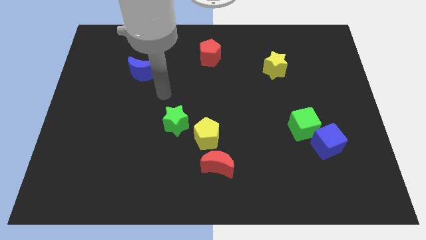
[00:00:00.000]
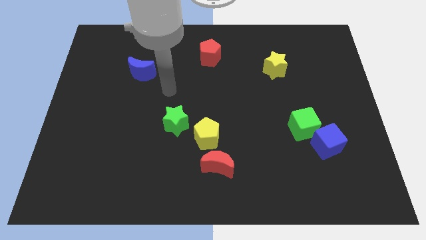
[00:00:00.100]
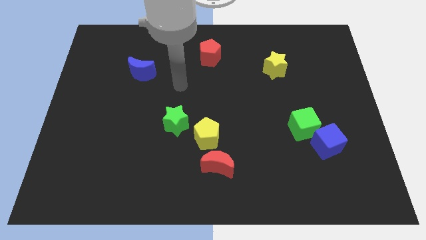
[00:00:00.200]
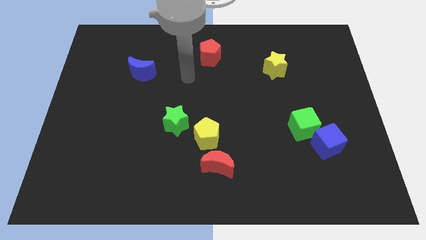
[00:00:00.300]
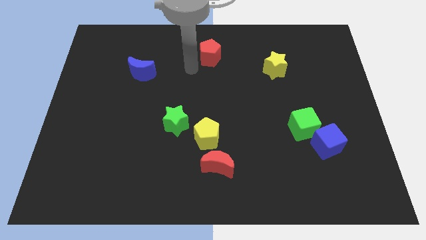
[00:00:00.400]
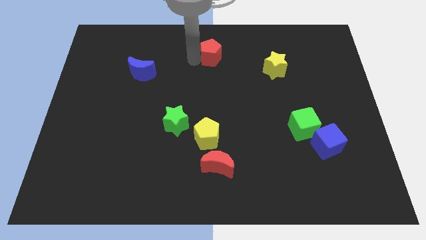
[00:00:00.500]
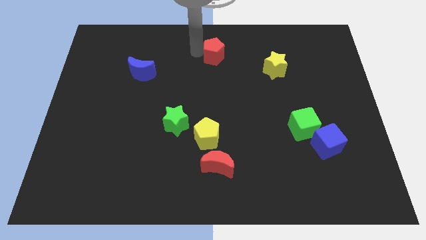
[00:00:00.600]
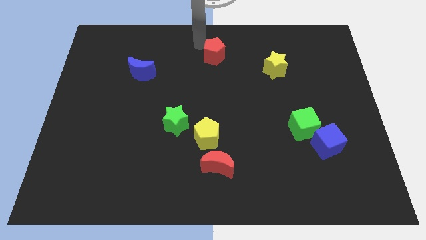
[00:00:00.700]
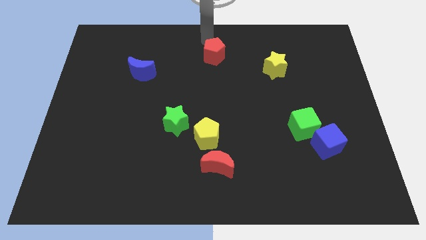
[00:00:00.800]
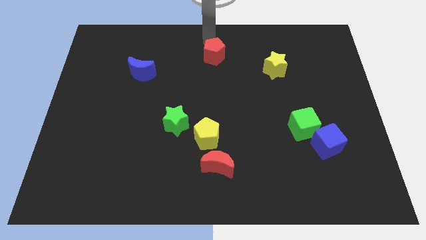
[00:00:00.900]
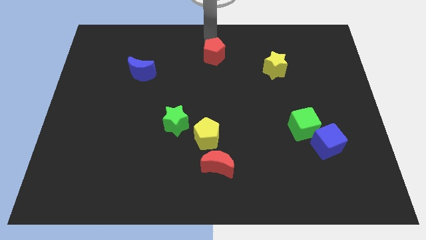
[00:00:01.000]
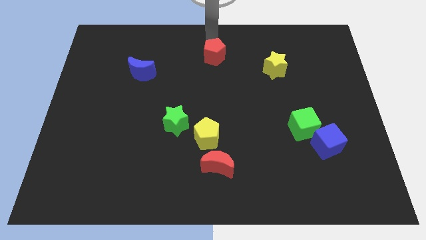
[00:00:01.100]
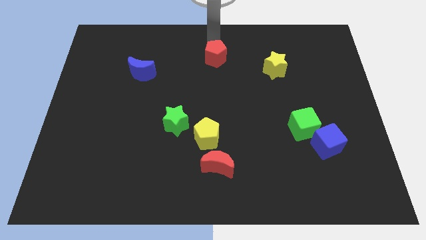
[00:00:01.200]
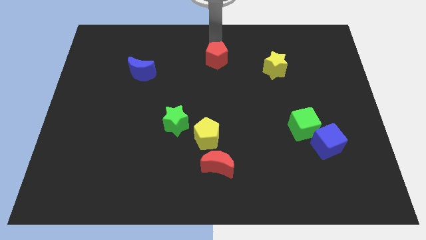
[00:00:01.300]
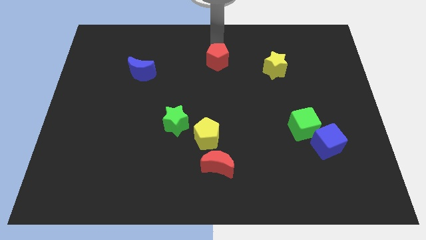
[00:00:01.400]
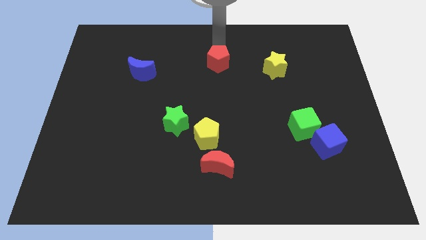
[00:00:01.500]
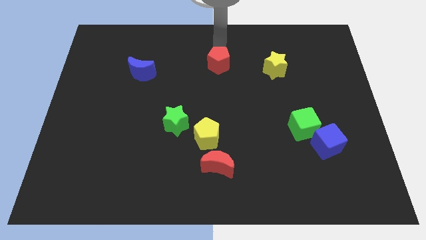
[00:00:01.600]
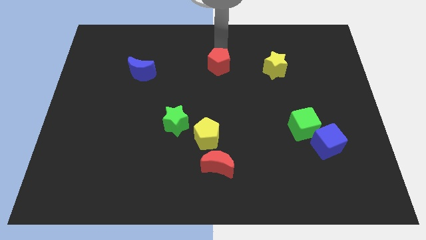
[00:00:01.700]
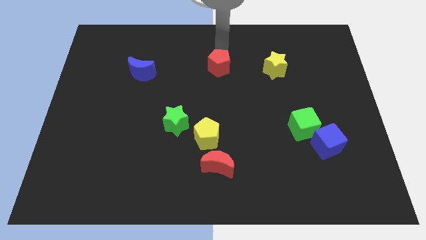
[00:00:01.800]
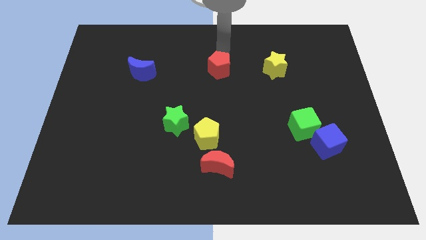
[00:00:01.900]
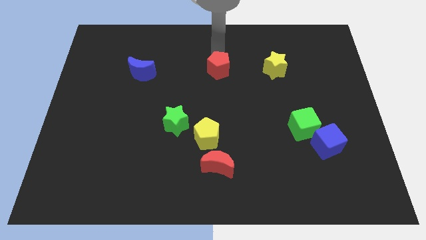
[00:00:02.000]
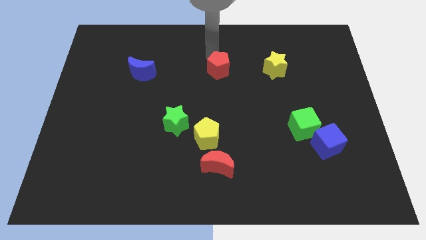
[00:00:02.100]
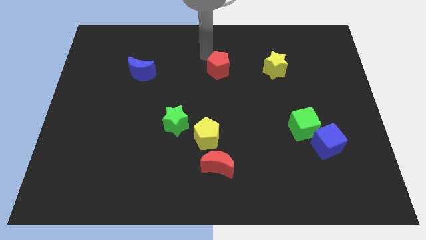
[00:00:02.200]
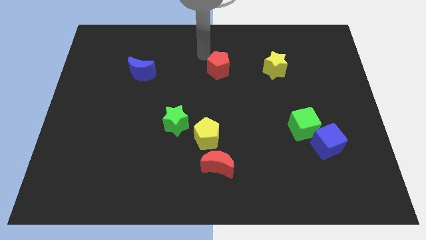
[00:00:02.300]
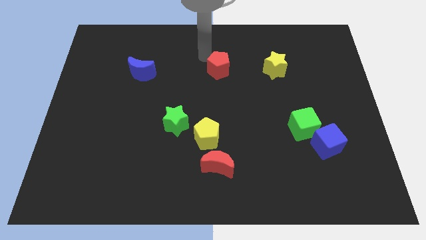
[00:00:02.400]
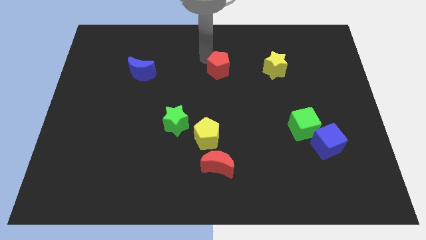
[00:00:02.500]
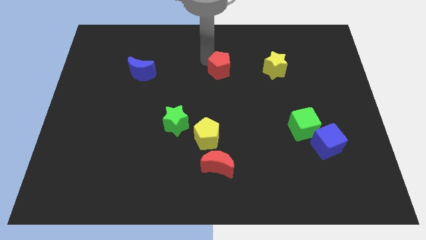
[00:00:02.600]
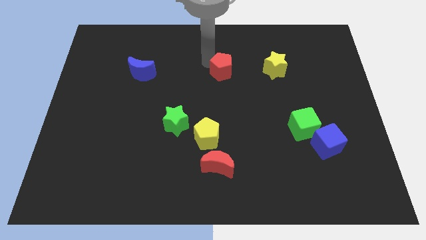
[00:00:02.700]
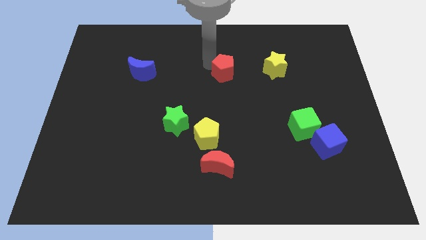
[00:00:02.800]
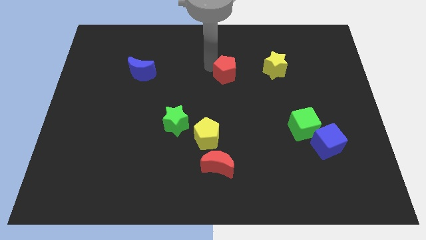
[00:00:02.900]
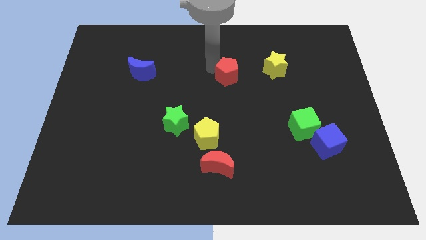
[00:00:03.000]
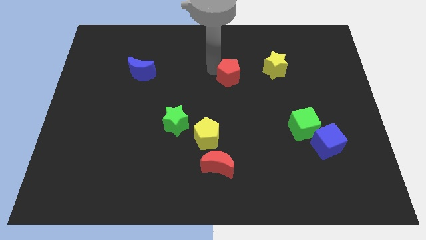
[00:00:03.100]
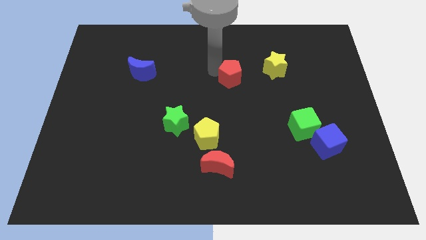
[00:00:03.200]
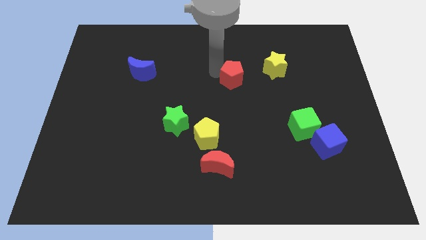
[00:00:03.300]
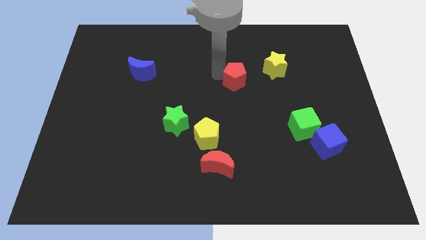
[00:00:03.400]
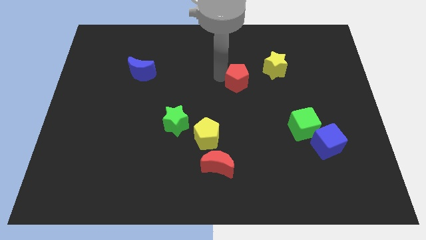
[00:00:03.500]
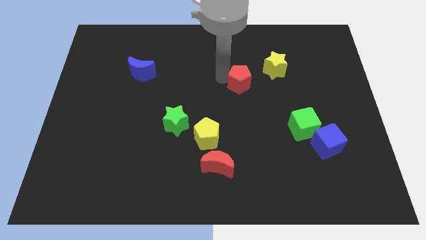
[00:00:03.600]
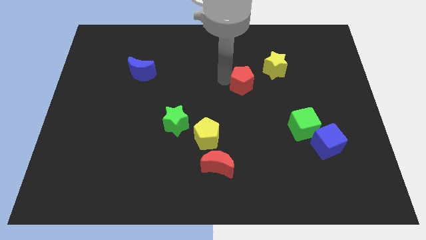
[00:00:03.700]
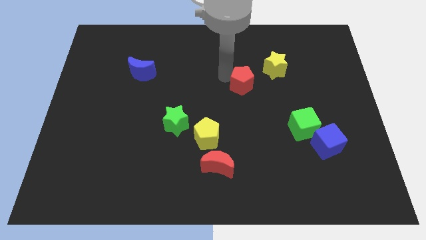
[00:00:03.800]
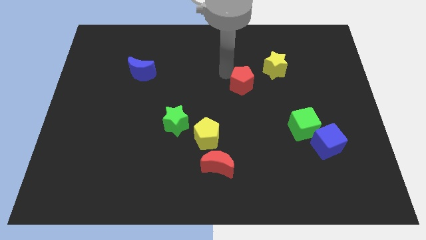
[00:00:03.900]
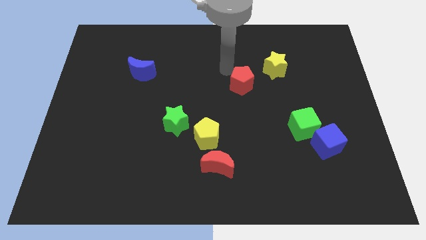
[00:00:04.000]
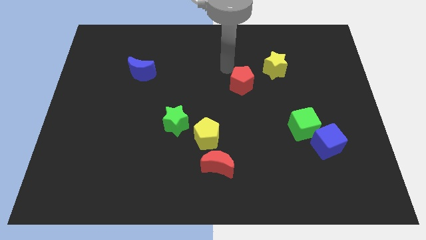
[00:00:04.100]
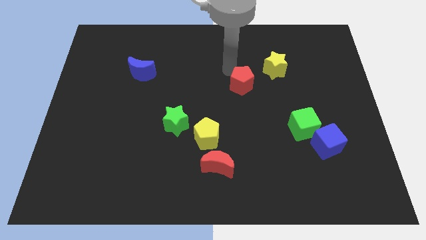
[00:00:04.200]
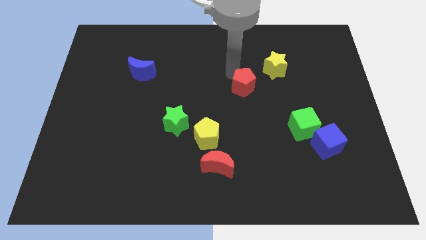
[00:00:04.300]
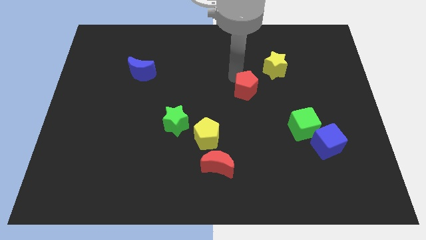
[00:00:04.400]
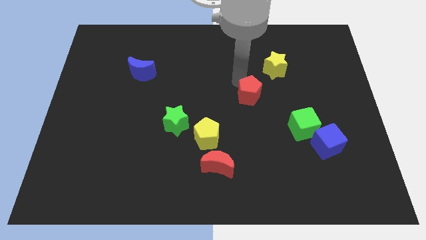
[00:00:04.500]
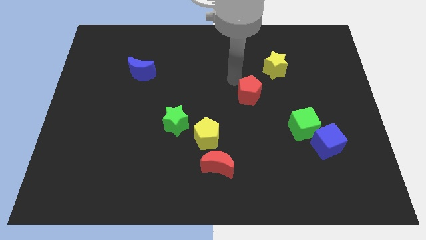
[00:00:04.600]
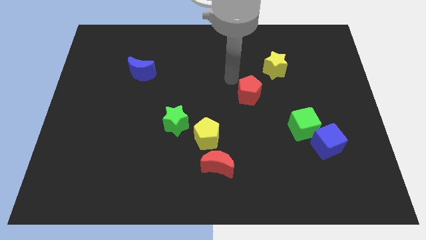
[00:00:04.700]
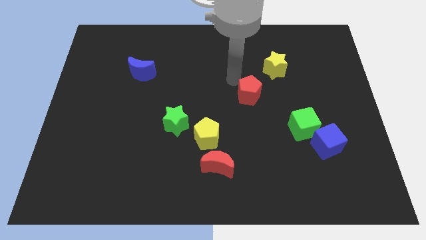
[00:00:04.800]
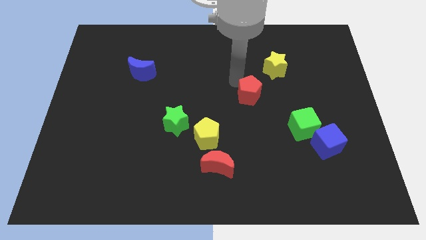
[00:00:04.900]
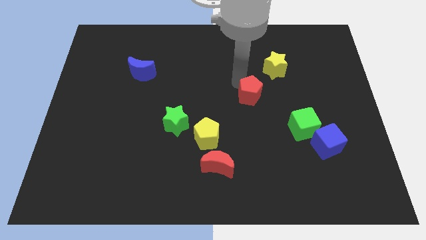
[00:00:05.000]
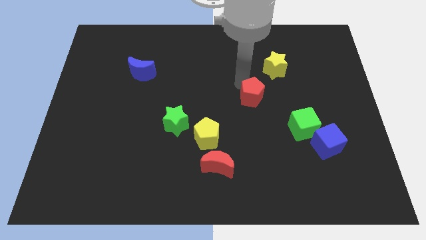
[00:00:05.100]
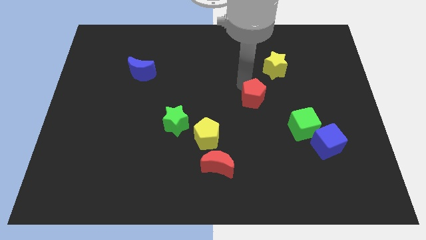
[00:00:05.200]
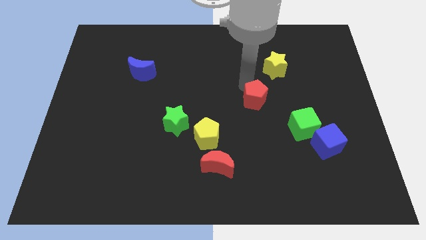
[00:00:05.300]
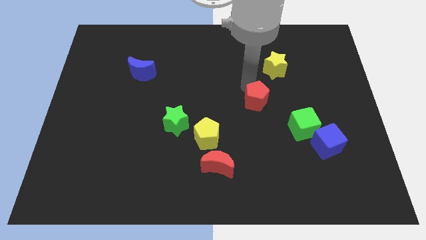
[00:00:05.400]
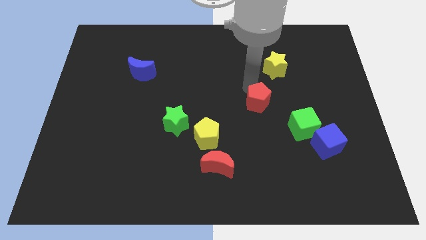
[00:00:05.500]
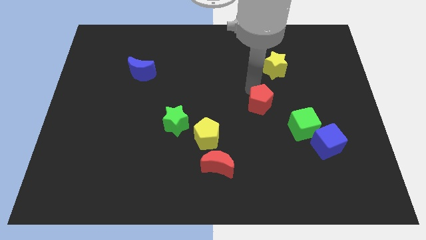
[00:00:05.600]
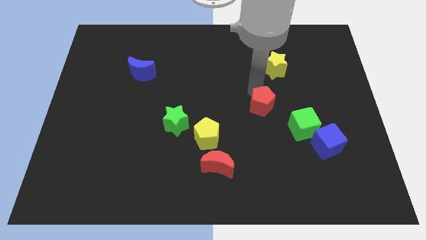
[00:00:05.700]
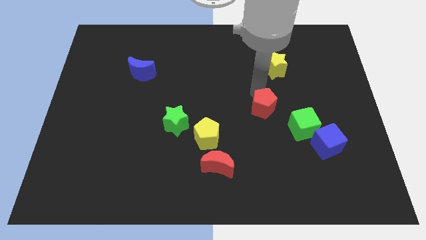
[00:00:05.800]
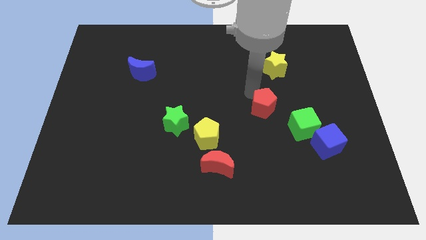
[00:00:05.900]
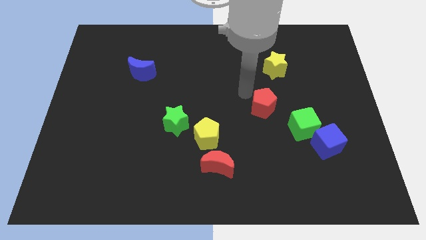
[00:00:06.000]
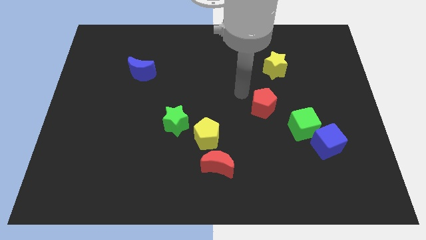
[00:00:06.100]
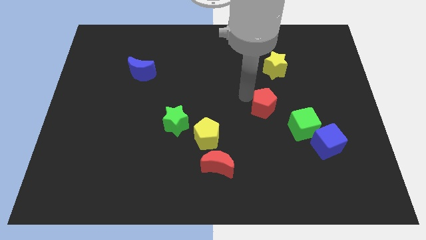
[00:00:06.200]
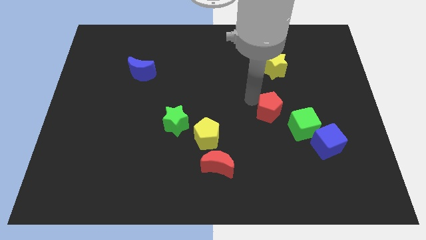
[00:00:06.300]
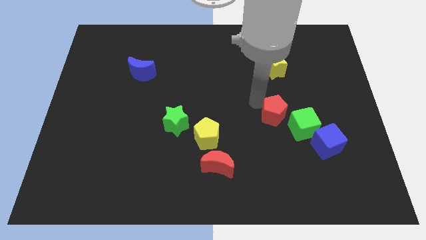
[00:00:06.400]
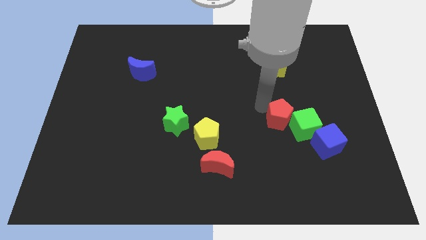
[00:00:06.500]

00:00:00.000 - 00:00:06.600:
move the red pentagon towards the green cube
